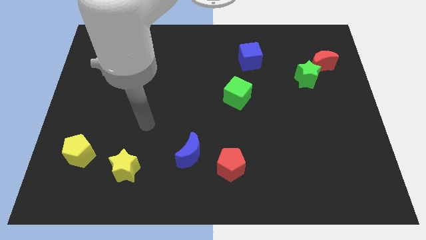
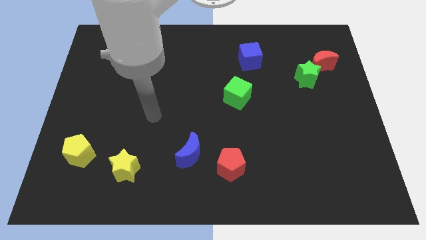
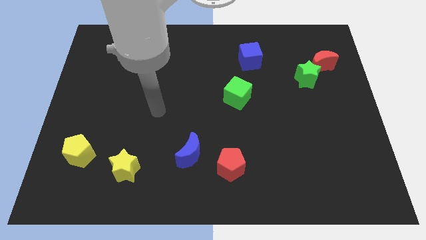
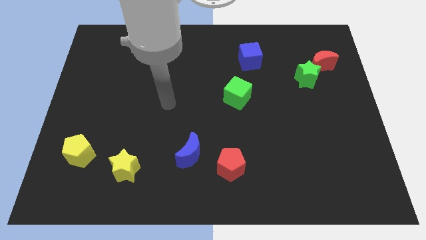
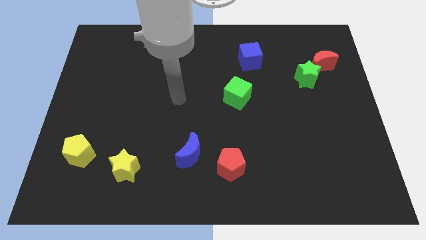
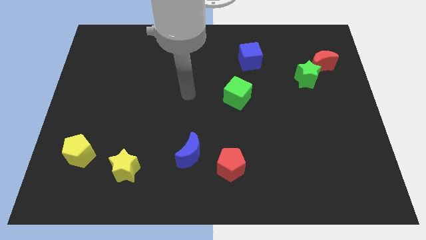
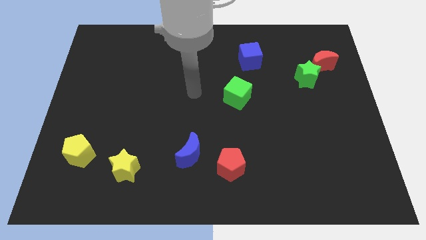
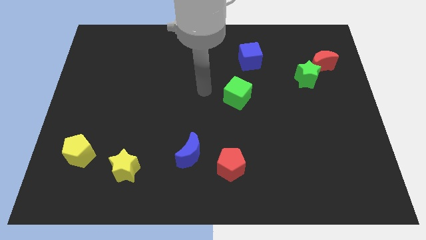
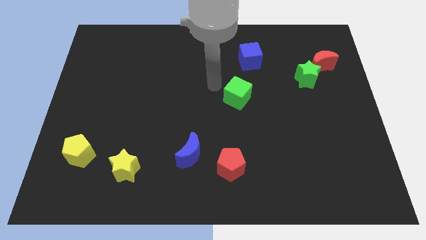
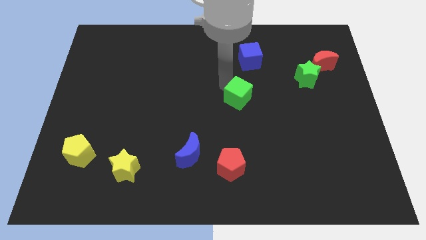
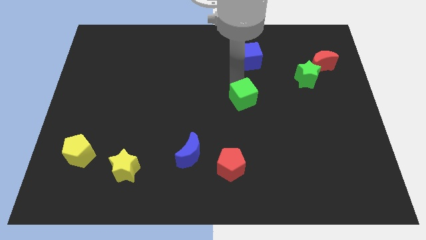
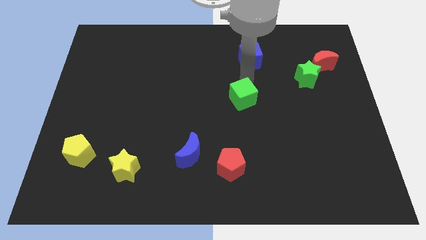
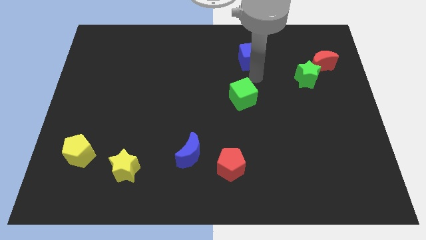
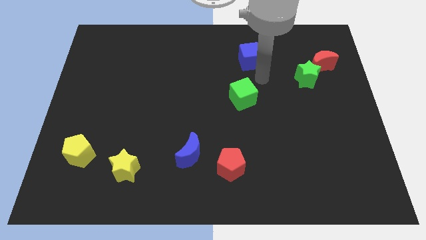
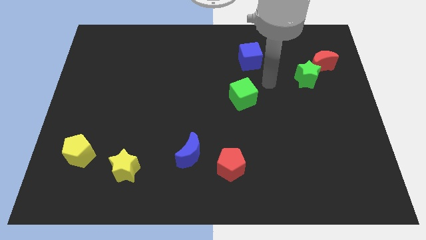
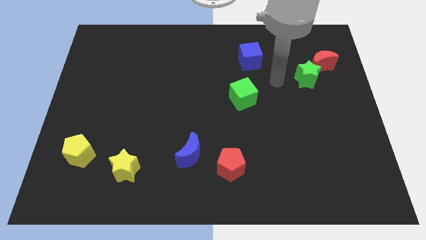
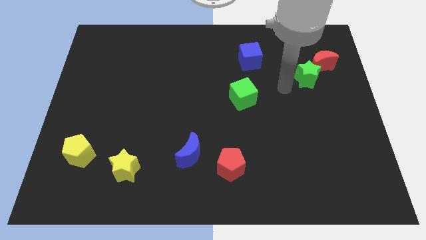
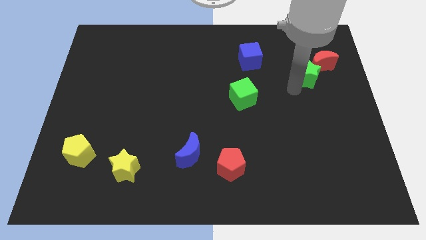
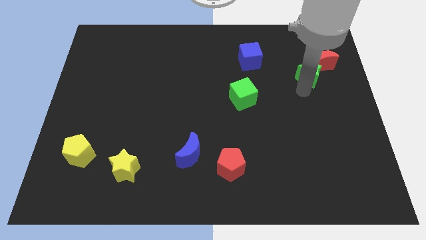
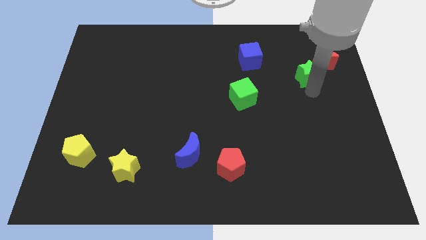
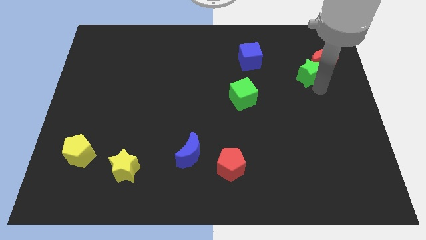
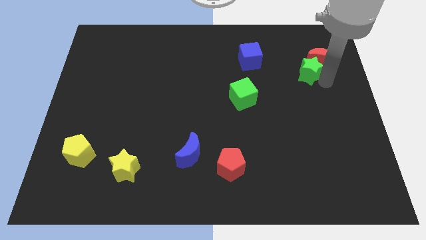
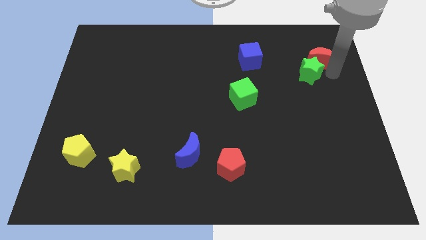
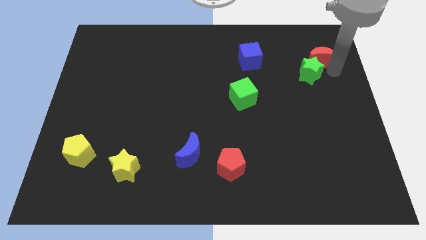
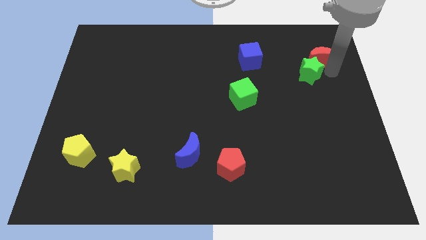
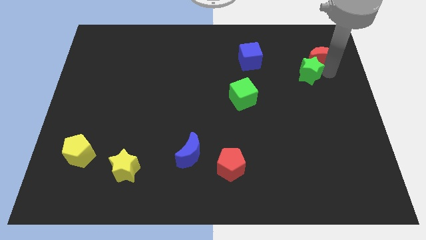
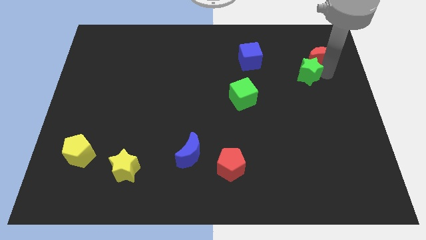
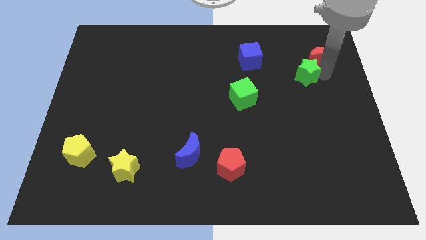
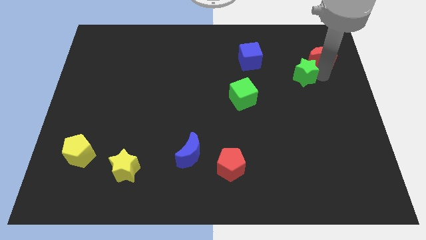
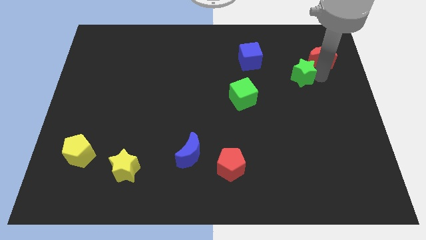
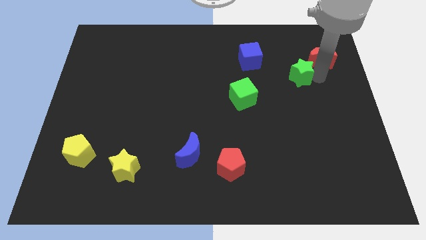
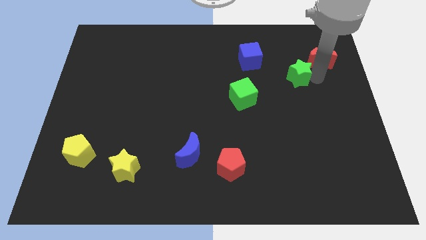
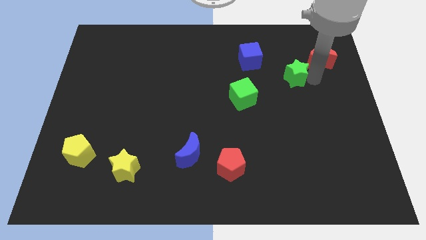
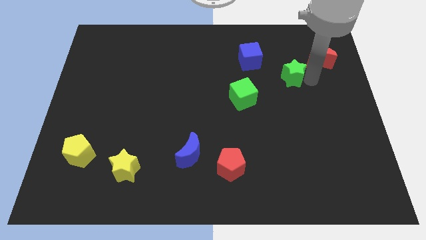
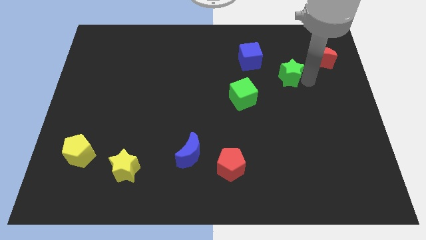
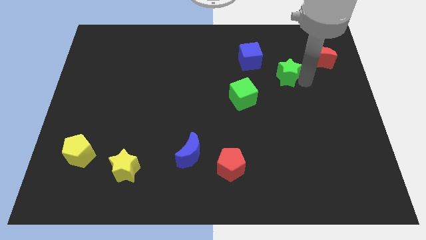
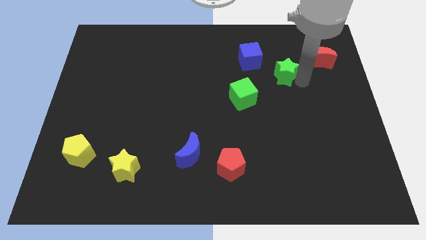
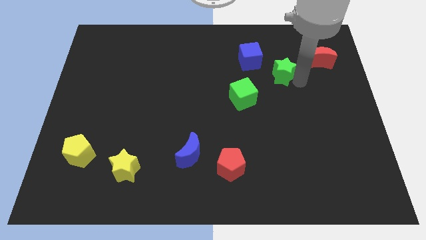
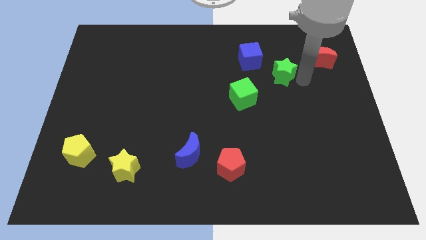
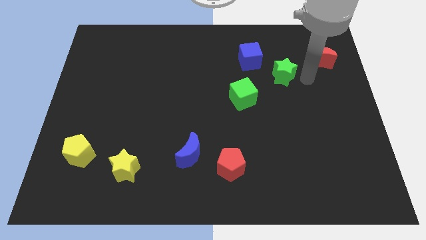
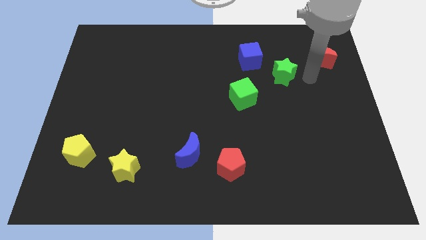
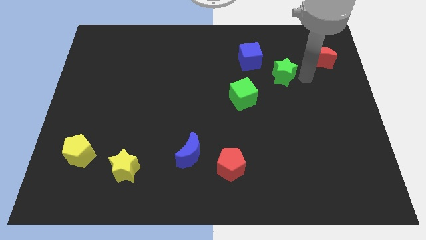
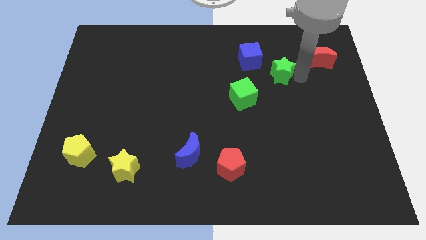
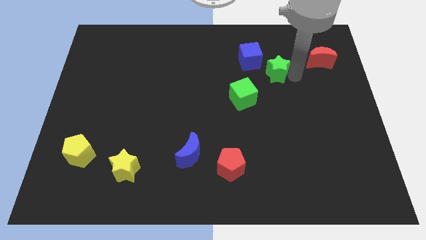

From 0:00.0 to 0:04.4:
slide the green star a little to the left

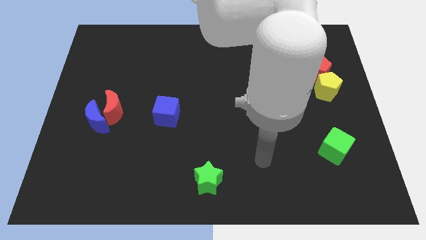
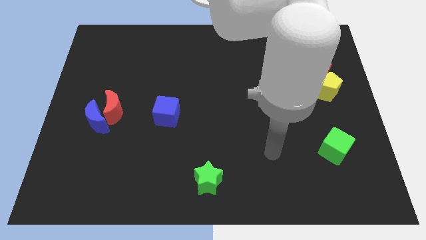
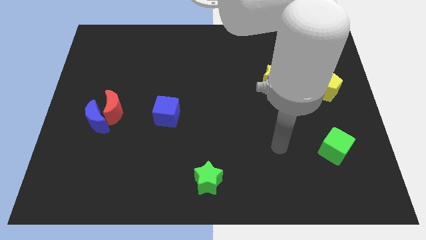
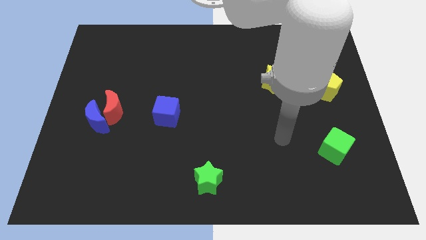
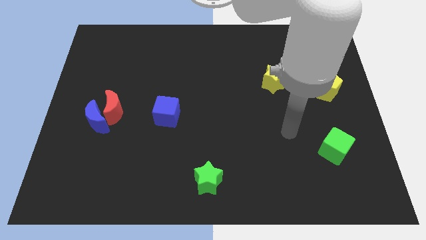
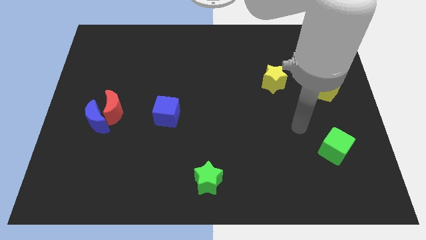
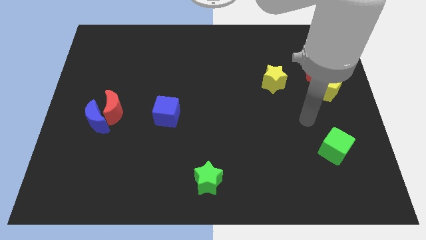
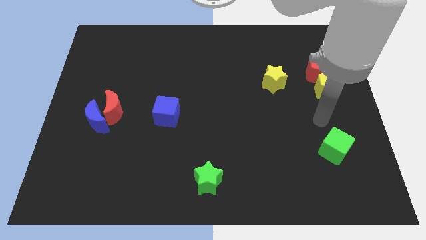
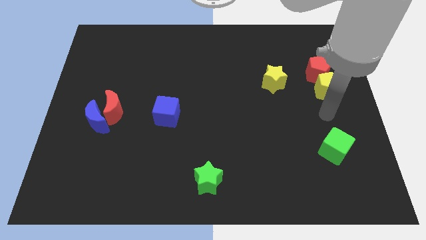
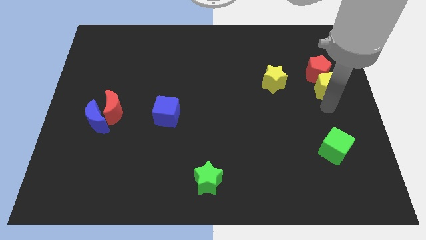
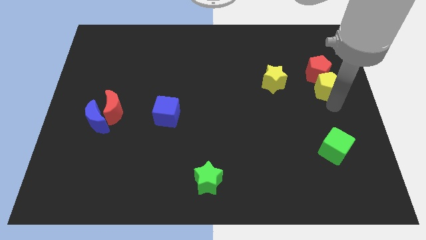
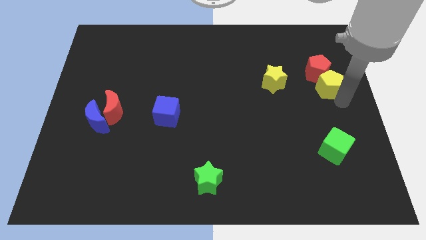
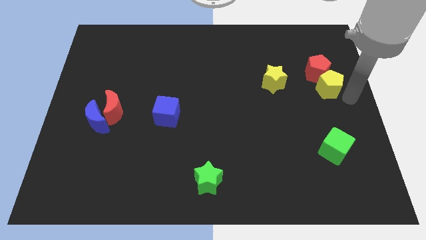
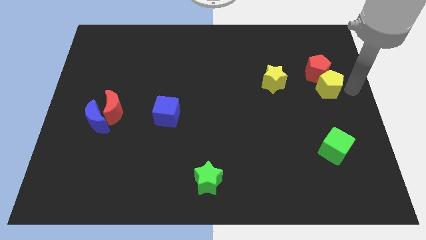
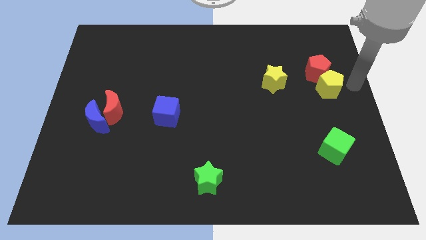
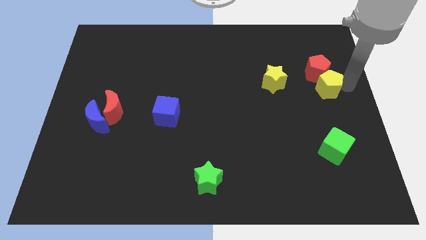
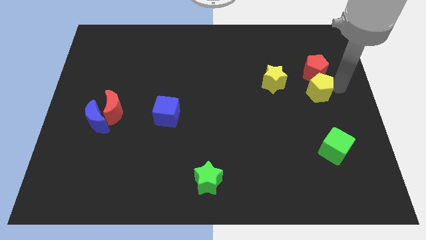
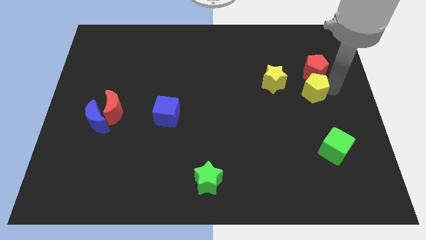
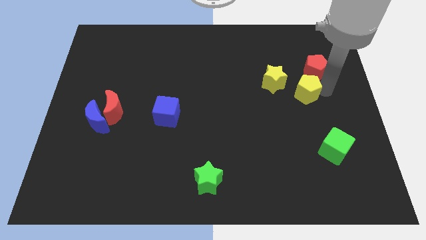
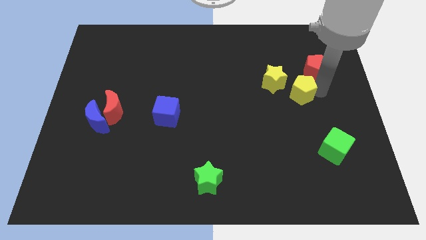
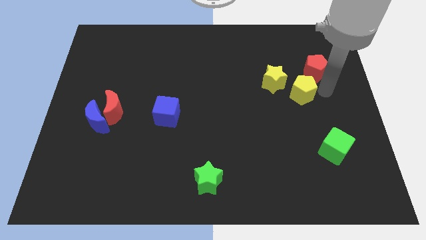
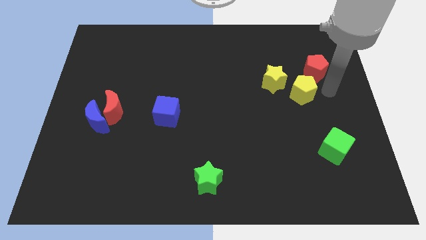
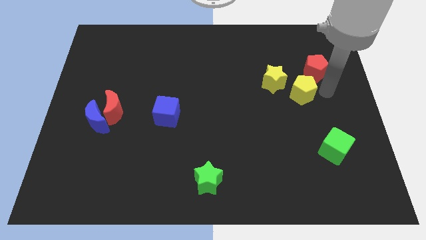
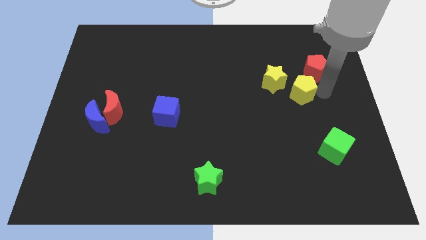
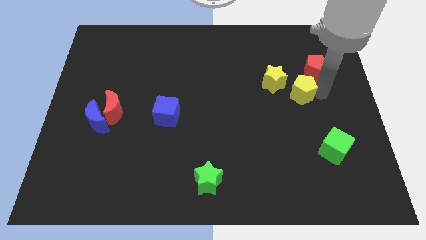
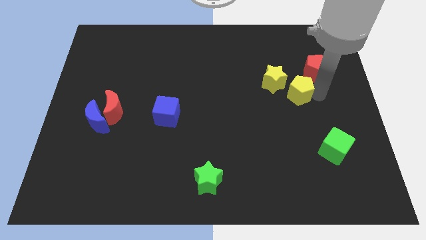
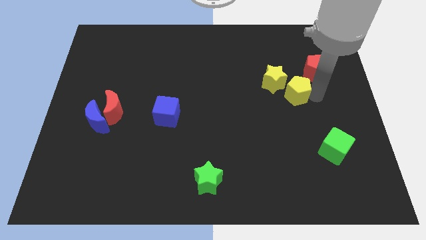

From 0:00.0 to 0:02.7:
slide the yellow pentagon slightly left

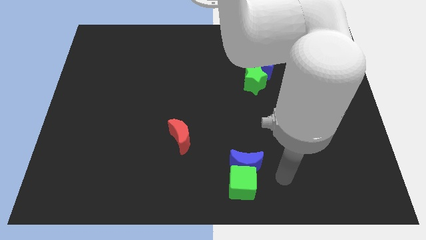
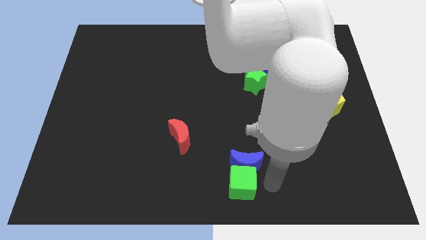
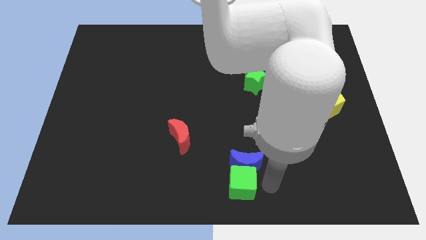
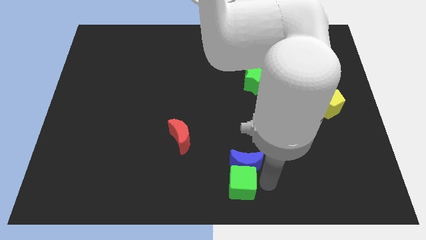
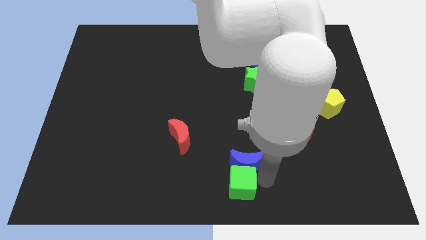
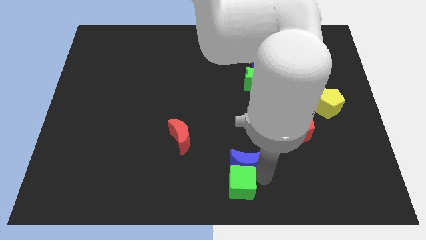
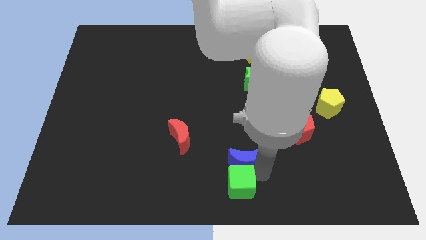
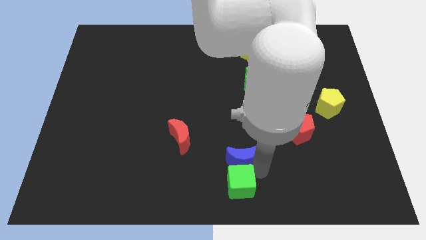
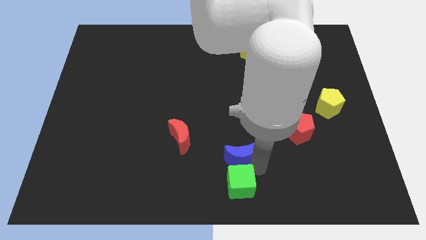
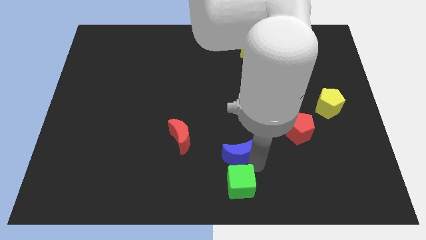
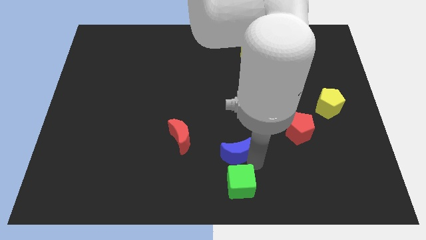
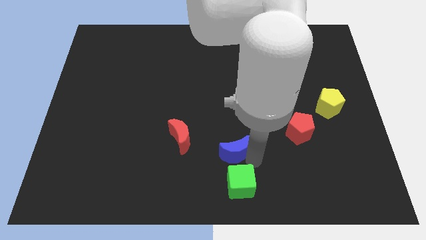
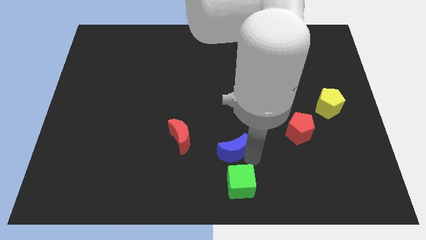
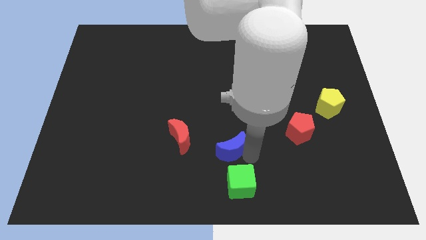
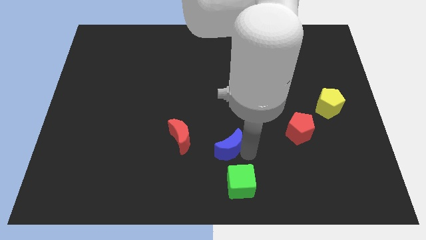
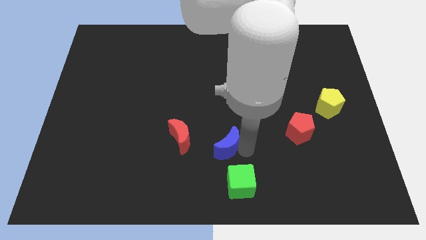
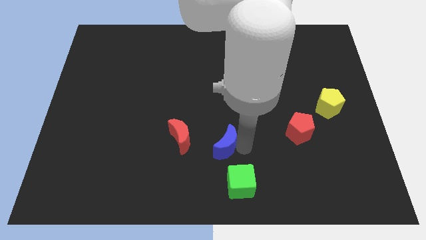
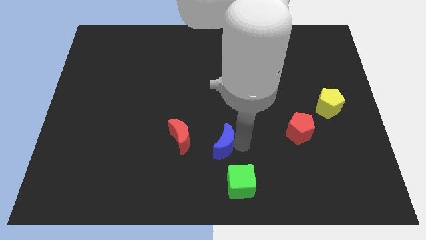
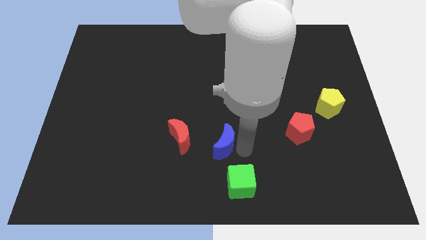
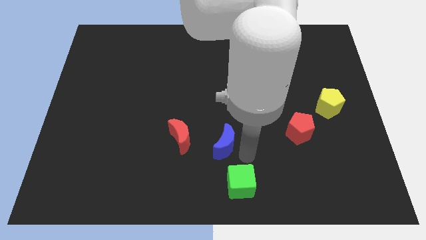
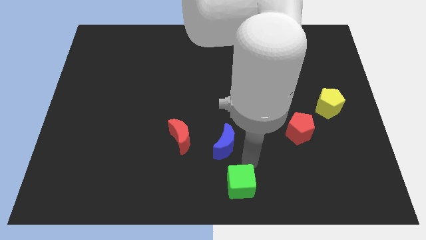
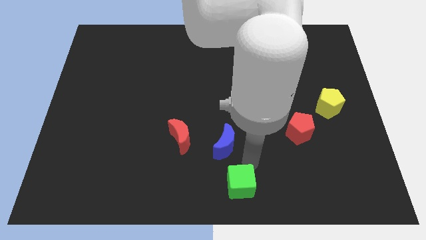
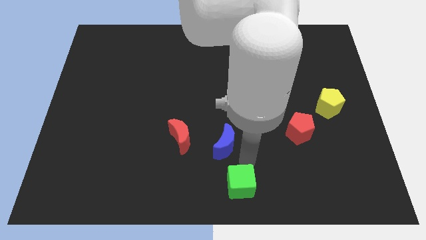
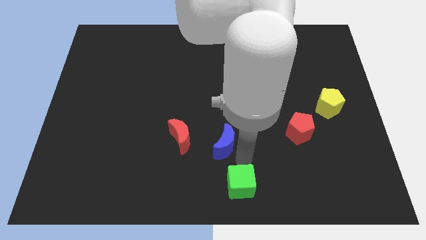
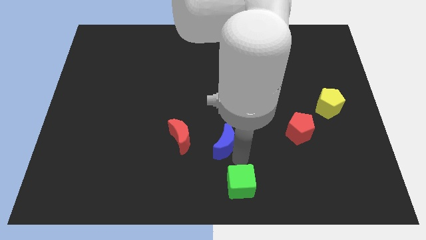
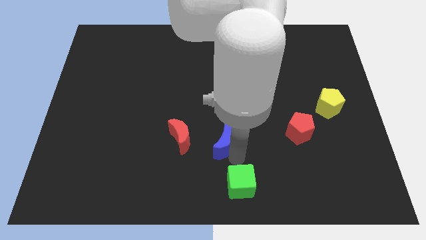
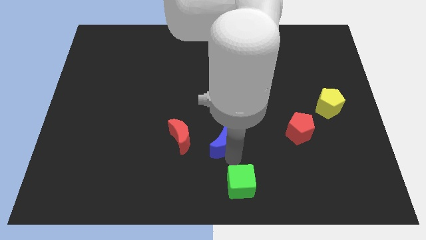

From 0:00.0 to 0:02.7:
slide the blue moon a little upwards and to the left diagonally
